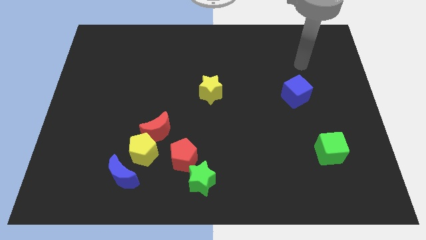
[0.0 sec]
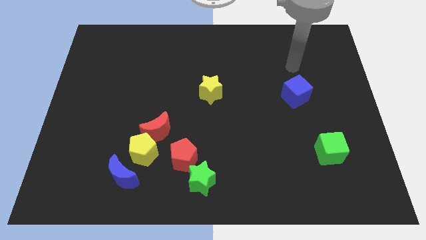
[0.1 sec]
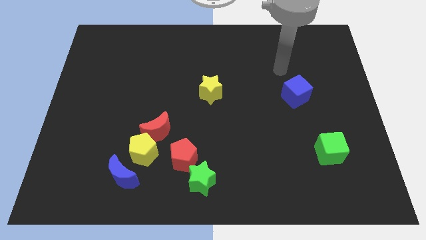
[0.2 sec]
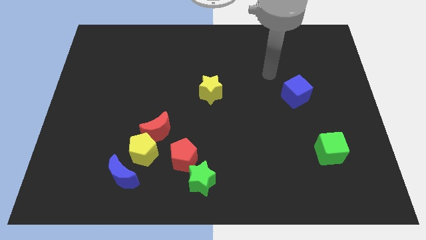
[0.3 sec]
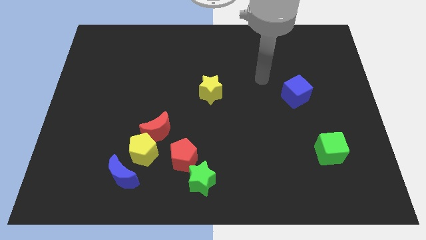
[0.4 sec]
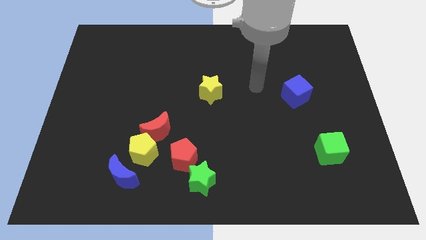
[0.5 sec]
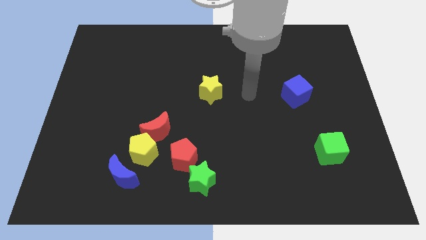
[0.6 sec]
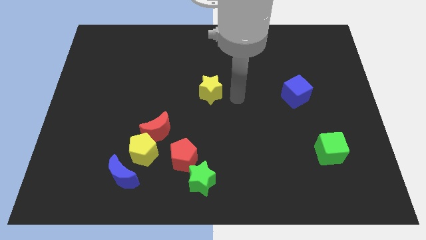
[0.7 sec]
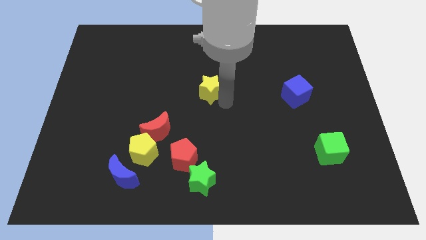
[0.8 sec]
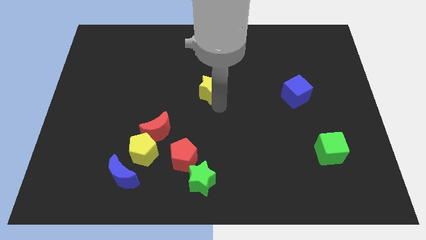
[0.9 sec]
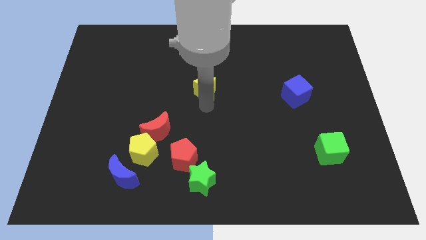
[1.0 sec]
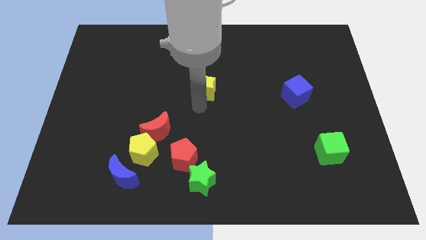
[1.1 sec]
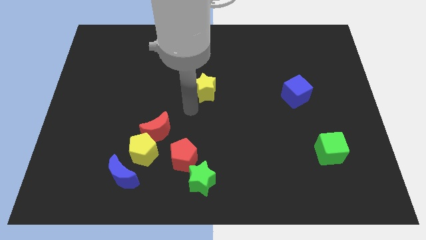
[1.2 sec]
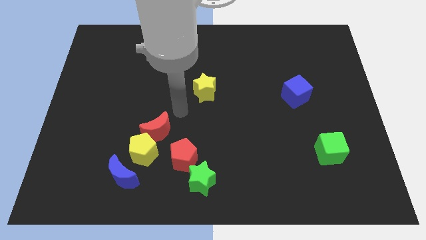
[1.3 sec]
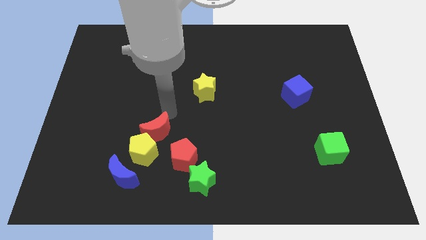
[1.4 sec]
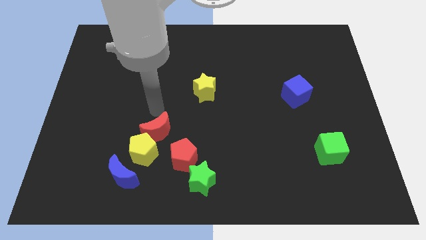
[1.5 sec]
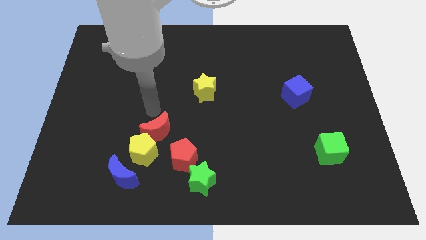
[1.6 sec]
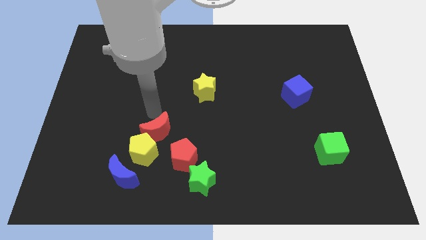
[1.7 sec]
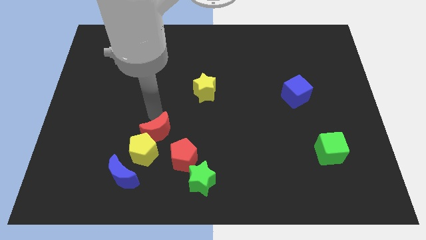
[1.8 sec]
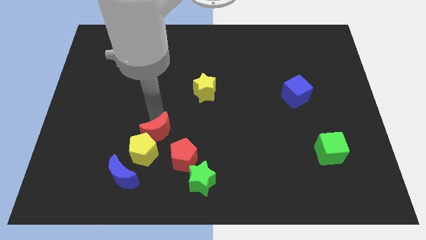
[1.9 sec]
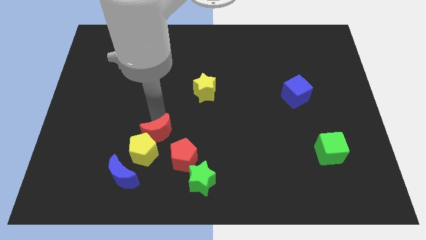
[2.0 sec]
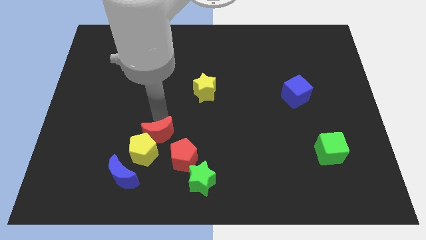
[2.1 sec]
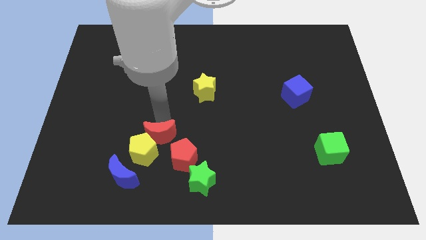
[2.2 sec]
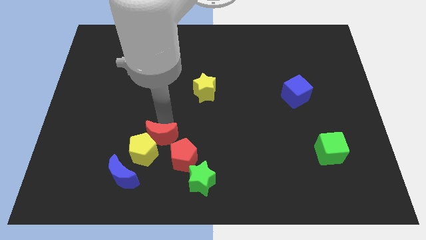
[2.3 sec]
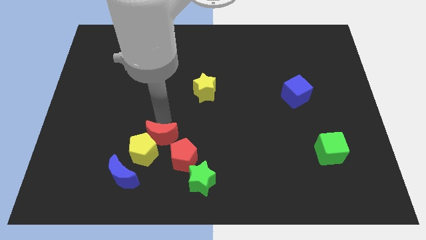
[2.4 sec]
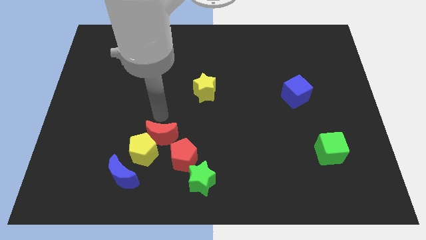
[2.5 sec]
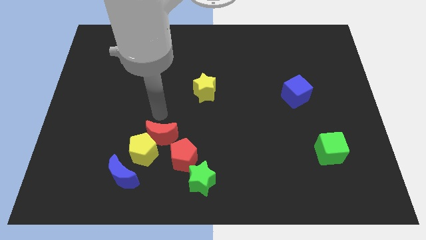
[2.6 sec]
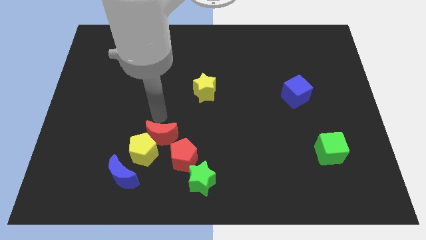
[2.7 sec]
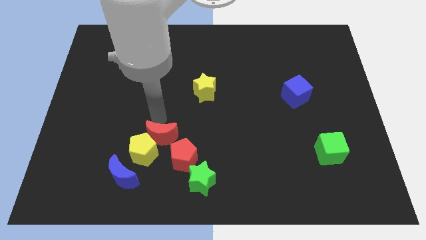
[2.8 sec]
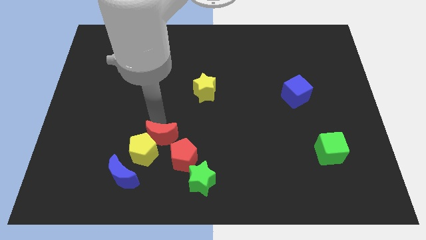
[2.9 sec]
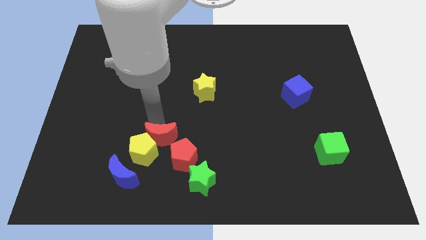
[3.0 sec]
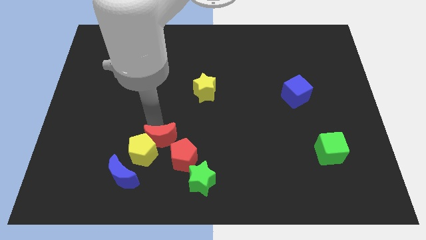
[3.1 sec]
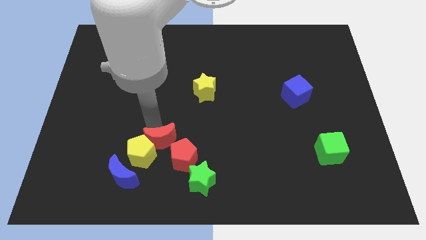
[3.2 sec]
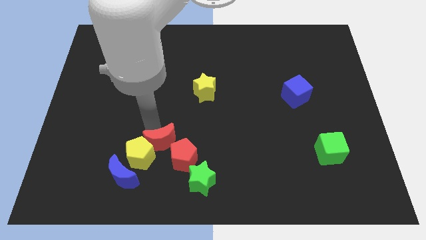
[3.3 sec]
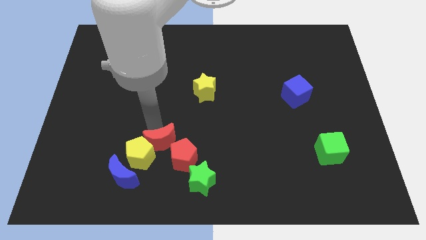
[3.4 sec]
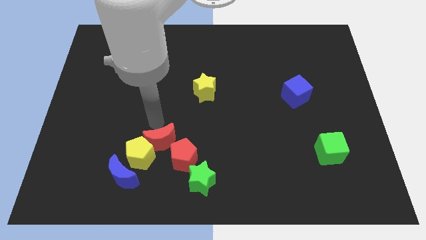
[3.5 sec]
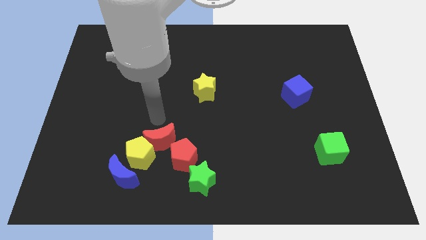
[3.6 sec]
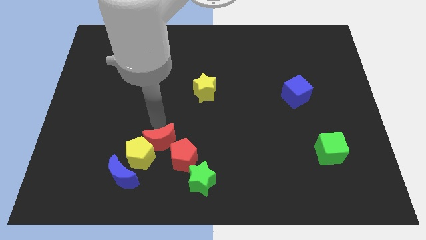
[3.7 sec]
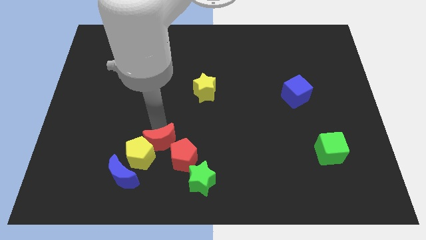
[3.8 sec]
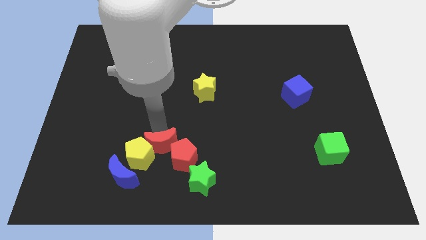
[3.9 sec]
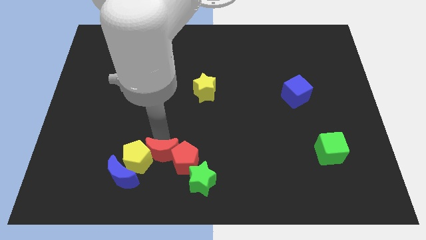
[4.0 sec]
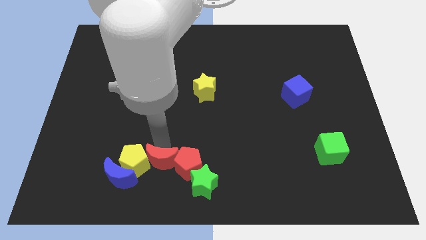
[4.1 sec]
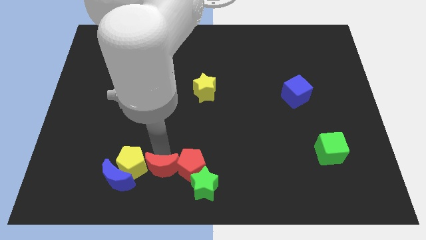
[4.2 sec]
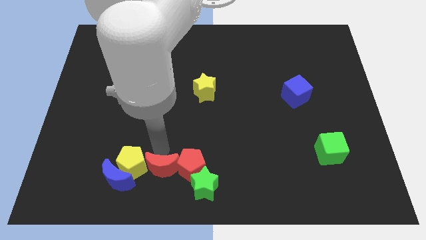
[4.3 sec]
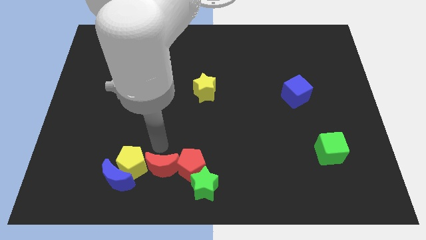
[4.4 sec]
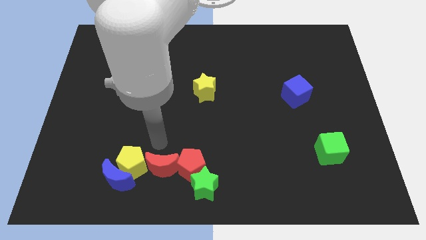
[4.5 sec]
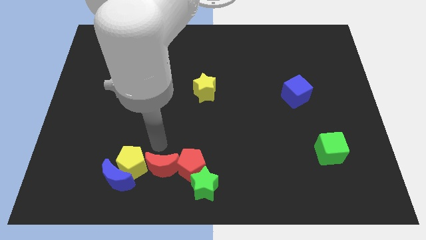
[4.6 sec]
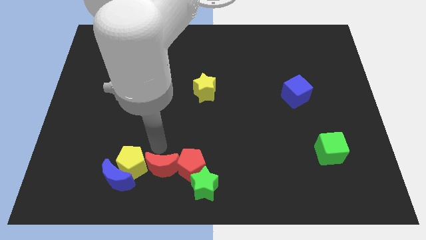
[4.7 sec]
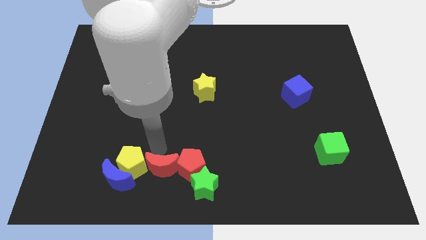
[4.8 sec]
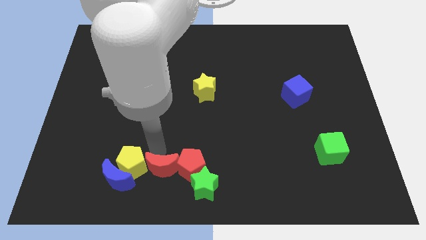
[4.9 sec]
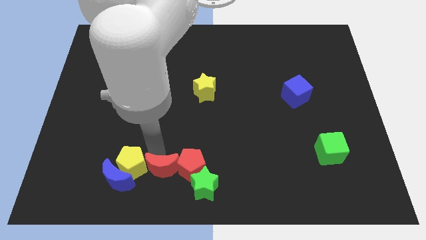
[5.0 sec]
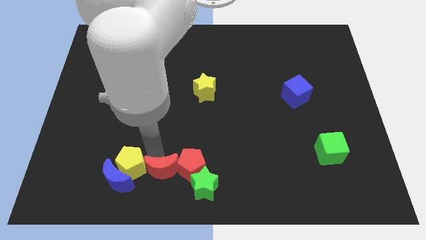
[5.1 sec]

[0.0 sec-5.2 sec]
slide the red moon to the bottom

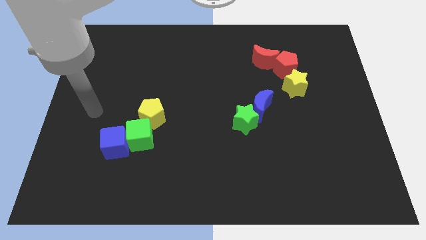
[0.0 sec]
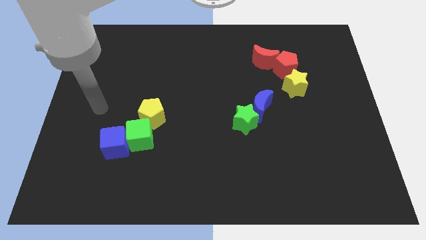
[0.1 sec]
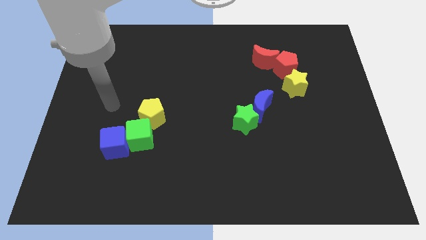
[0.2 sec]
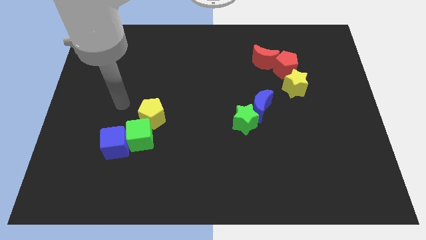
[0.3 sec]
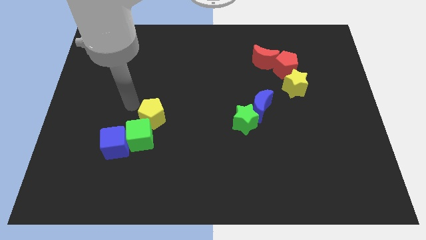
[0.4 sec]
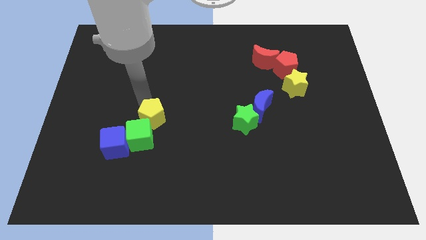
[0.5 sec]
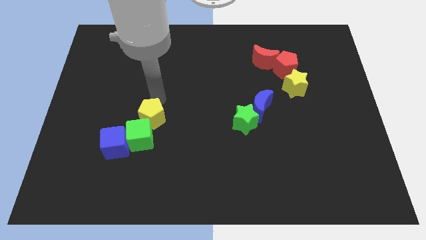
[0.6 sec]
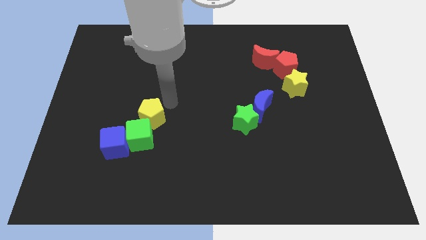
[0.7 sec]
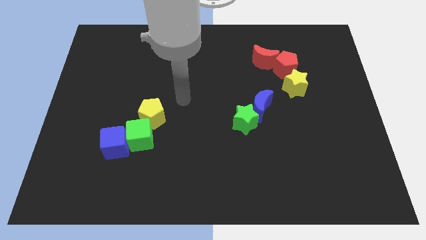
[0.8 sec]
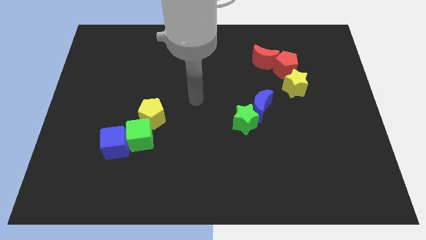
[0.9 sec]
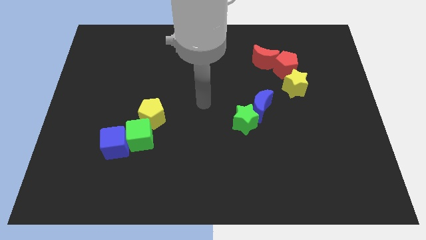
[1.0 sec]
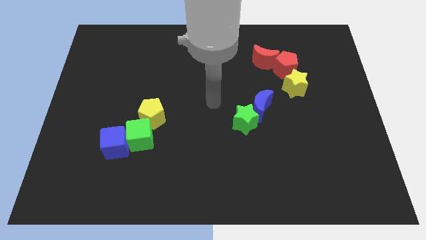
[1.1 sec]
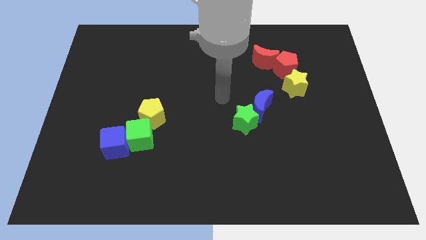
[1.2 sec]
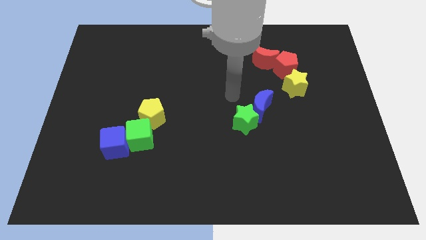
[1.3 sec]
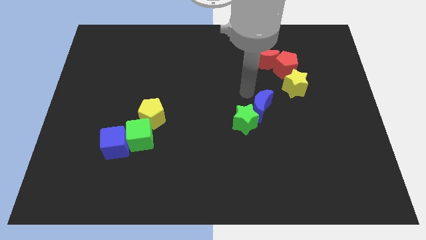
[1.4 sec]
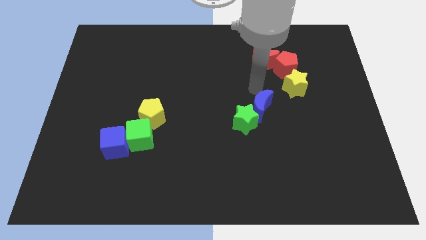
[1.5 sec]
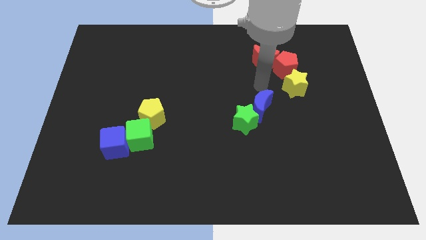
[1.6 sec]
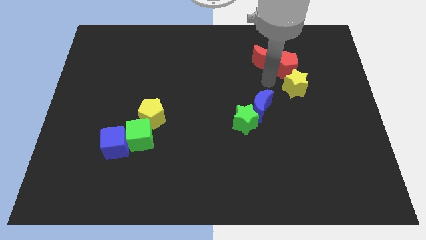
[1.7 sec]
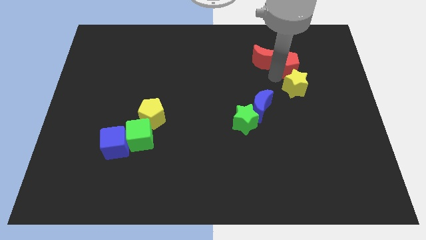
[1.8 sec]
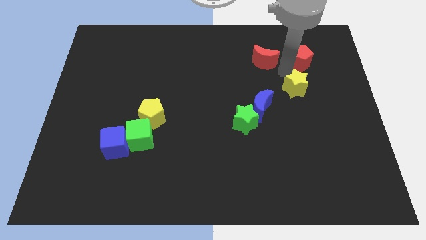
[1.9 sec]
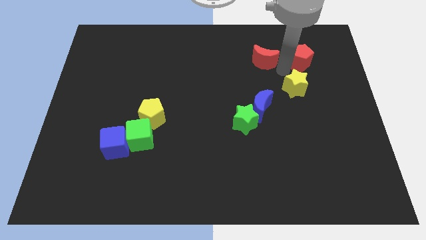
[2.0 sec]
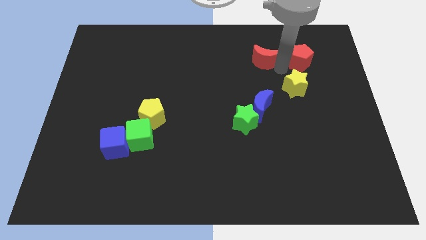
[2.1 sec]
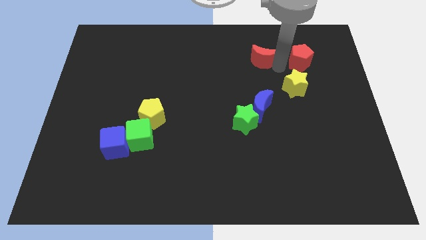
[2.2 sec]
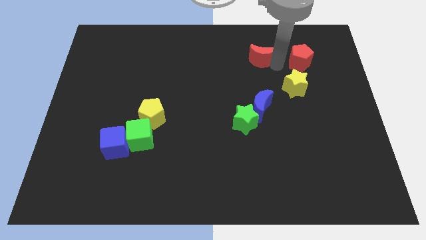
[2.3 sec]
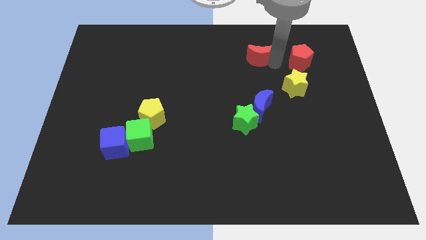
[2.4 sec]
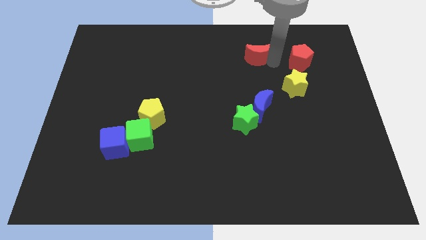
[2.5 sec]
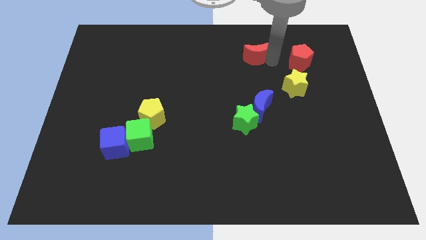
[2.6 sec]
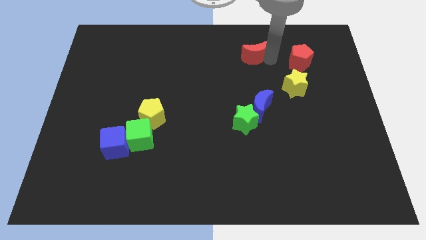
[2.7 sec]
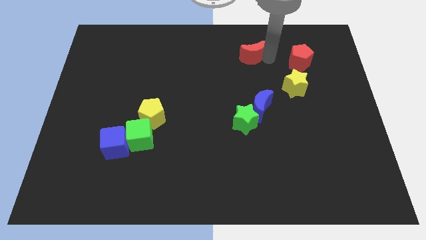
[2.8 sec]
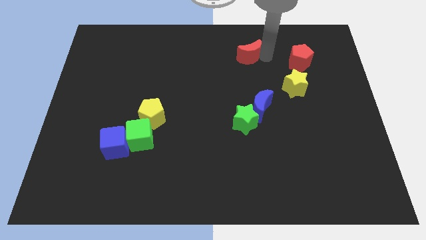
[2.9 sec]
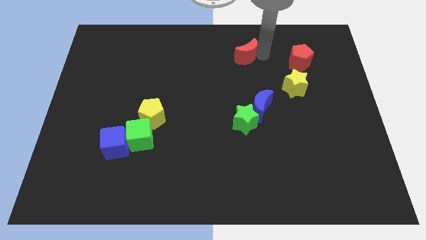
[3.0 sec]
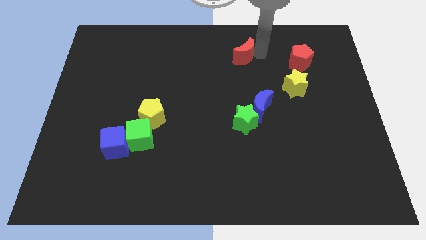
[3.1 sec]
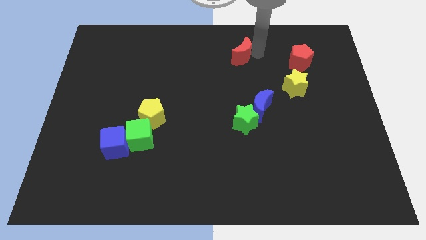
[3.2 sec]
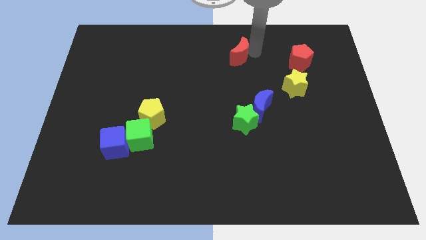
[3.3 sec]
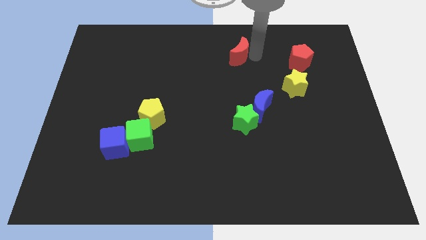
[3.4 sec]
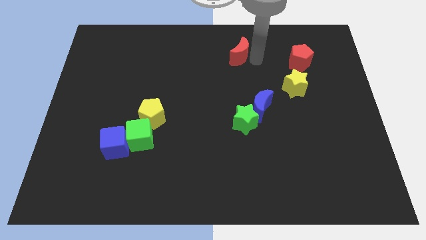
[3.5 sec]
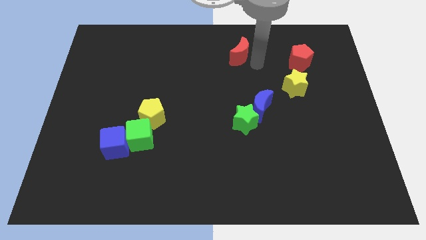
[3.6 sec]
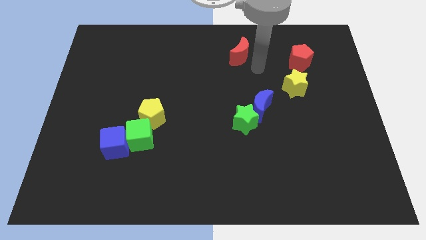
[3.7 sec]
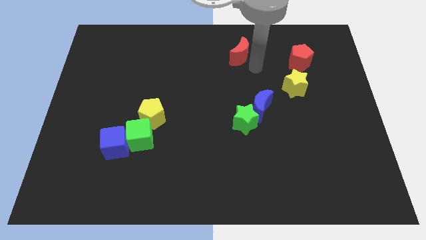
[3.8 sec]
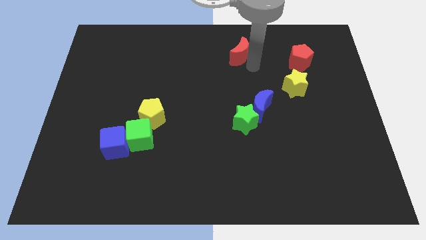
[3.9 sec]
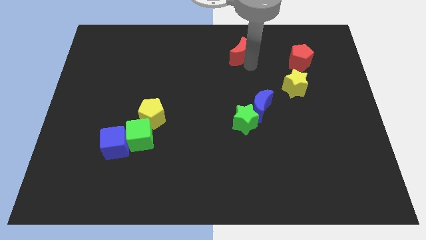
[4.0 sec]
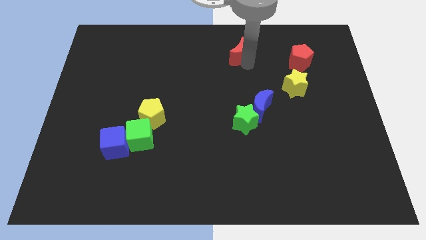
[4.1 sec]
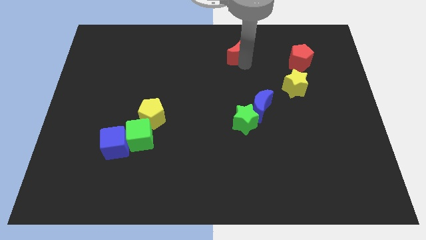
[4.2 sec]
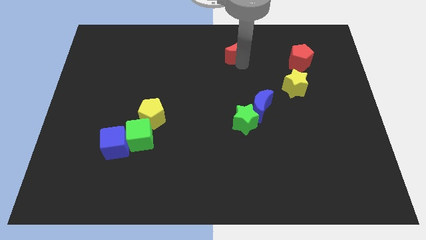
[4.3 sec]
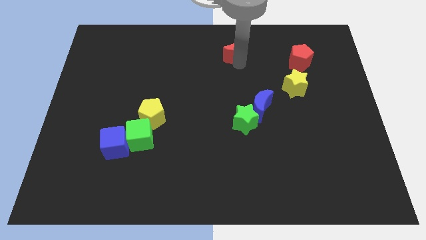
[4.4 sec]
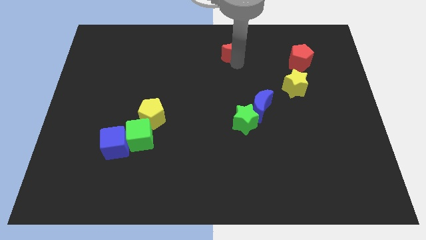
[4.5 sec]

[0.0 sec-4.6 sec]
slide the red moon to the top
